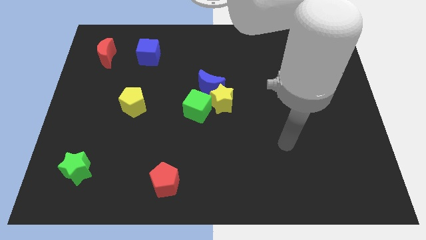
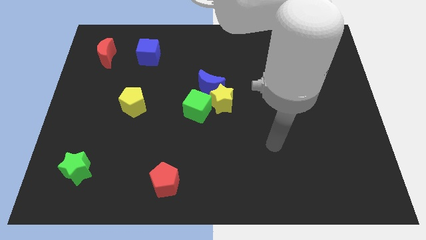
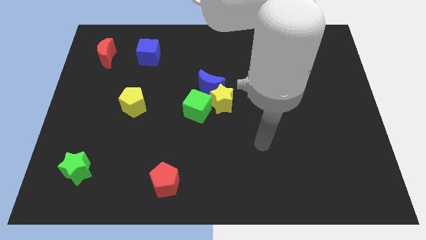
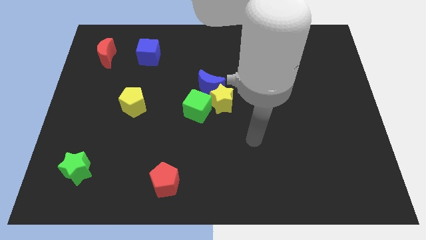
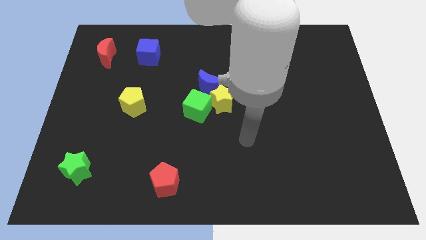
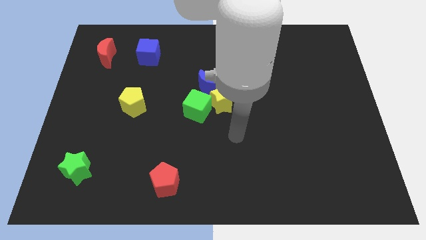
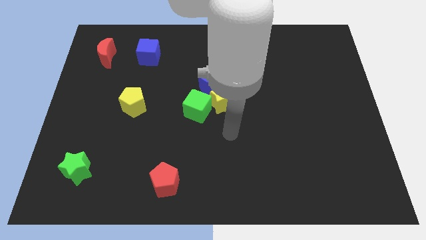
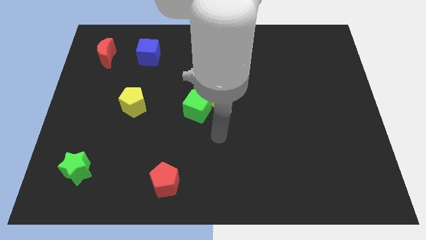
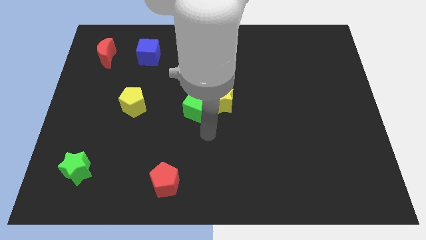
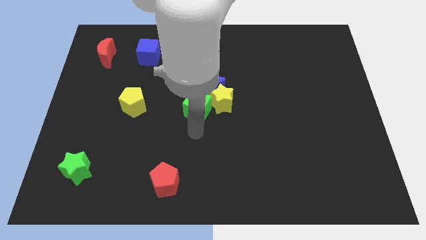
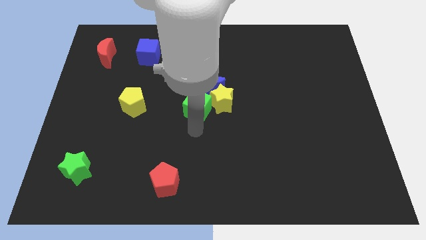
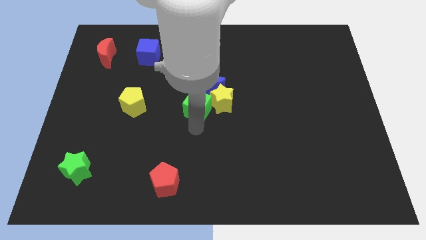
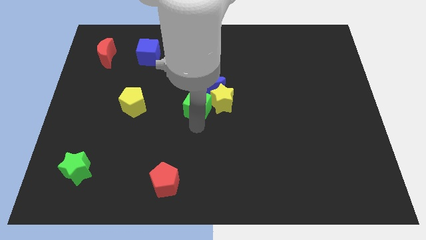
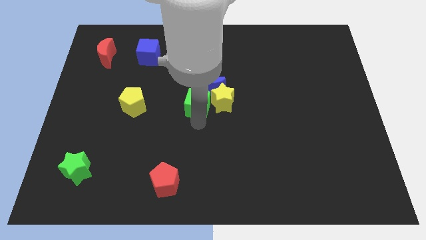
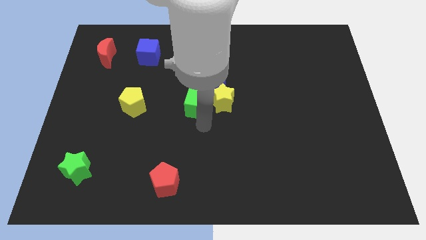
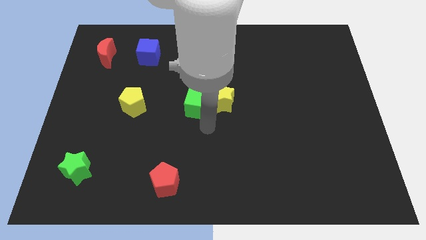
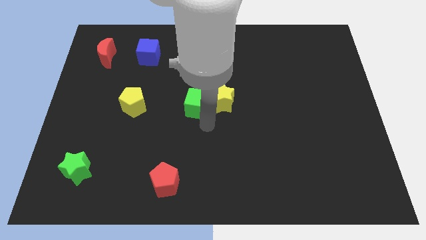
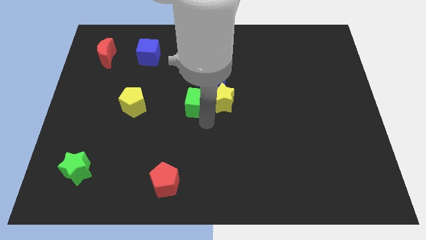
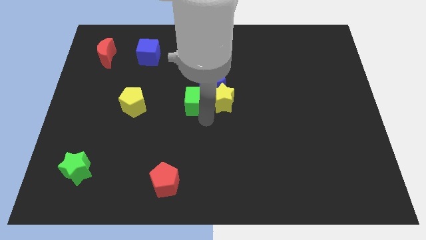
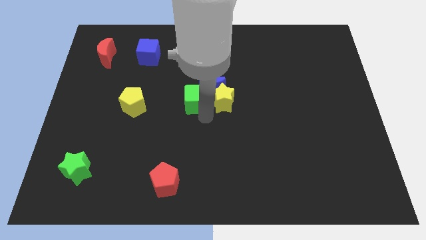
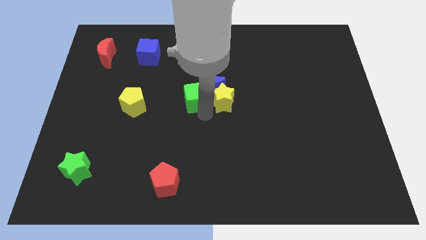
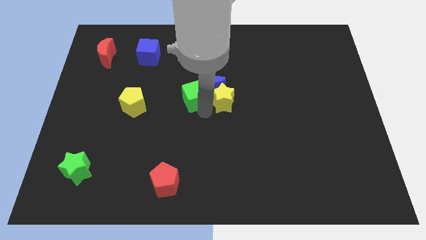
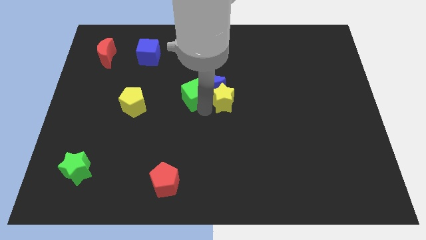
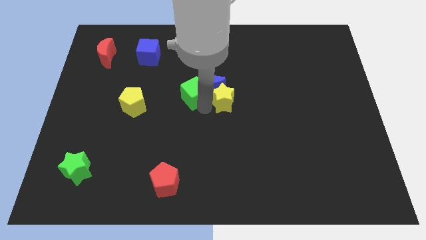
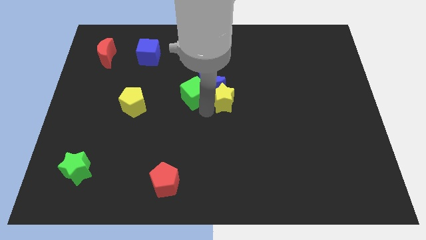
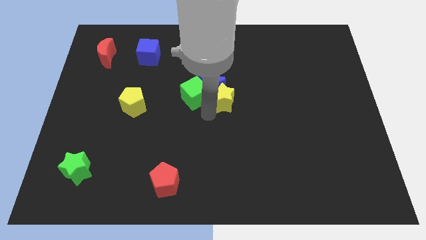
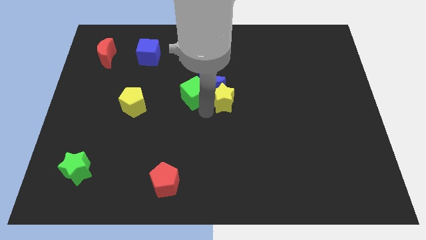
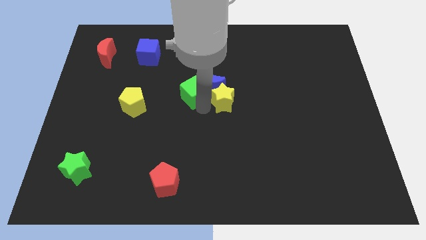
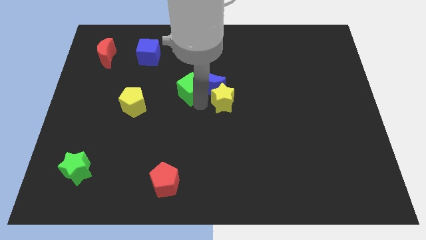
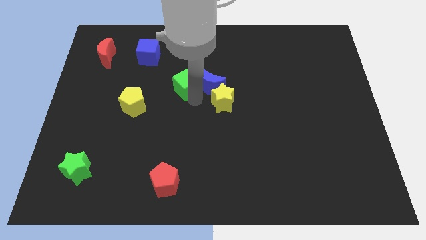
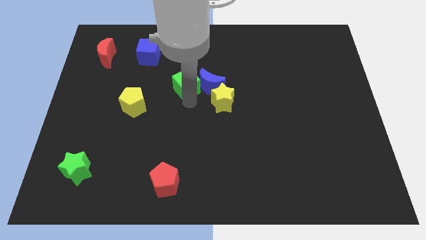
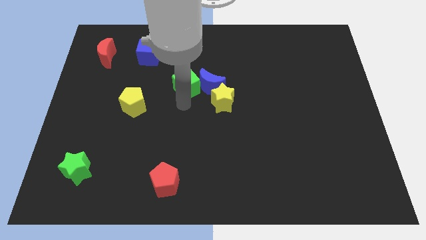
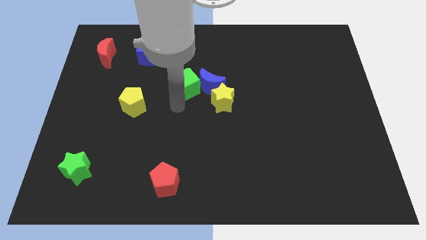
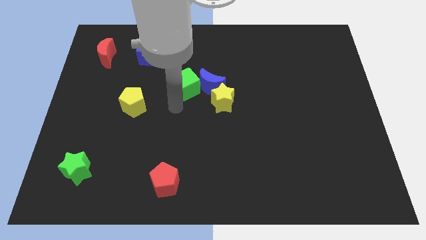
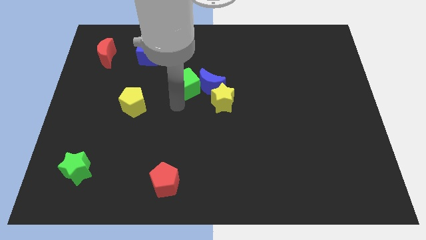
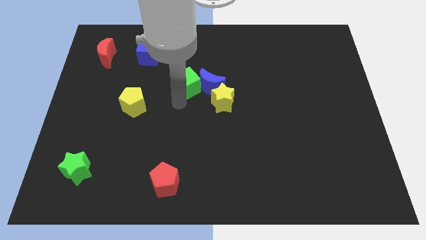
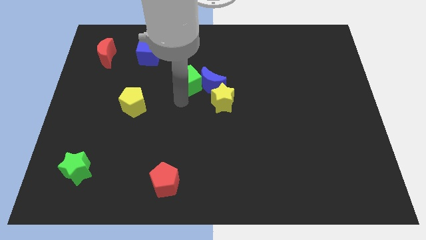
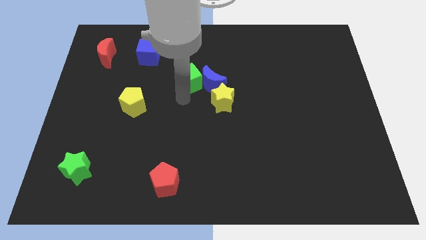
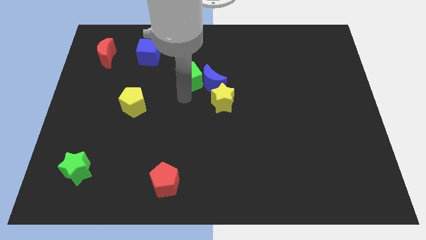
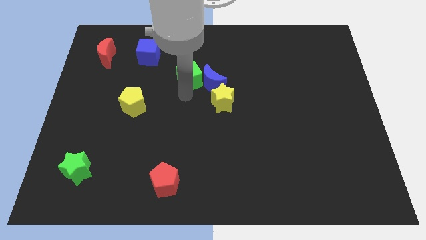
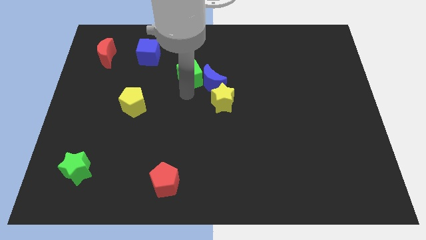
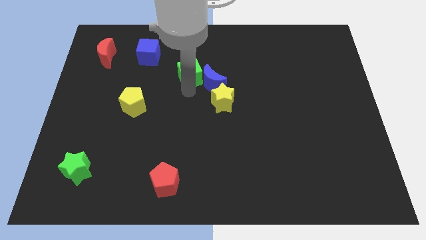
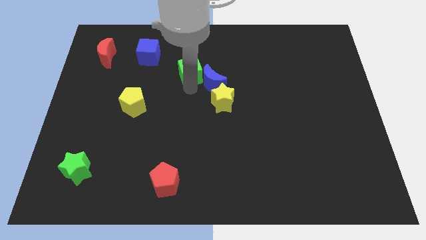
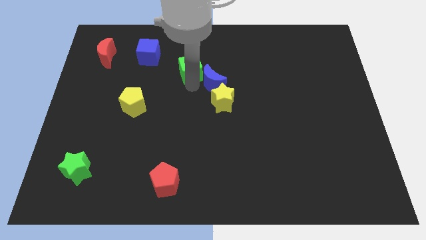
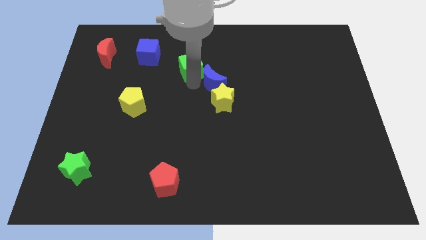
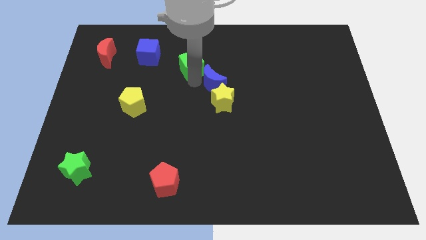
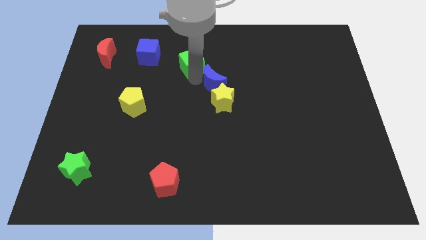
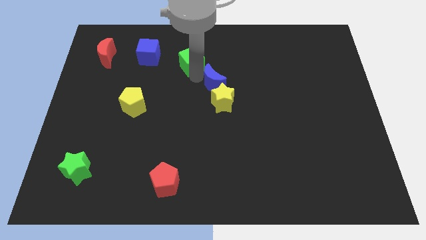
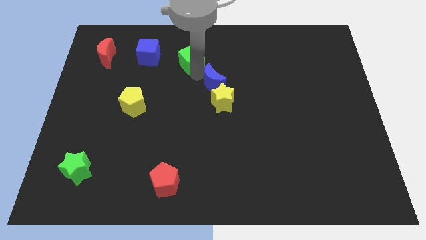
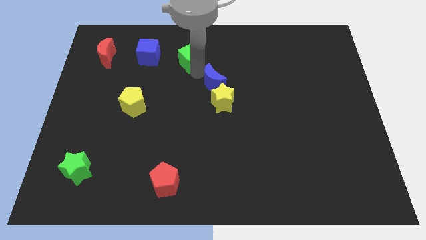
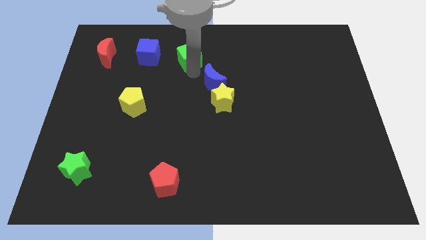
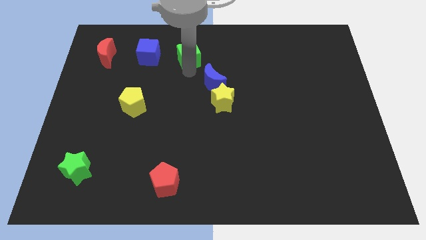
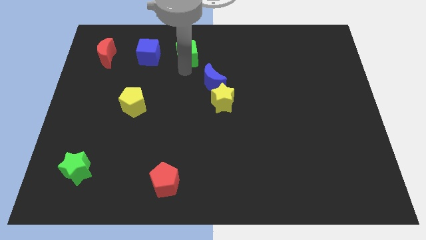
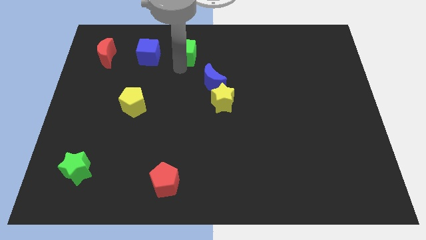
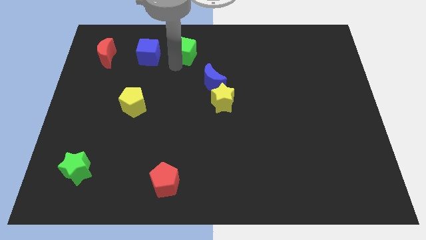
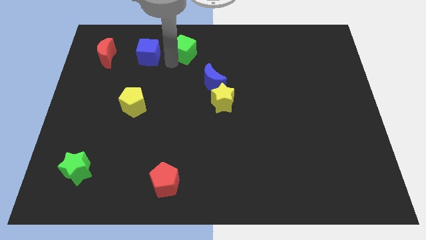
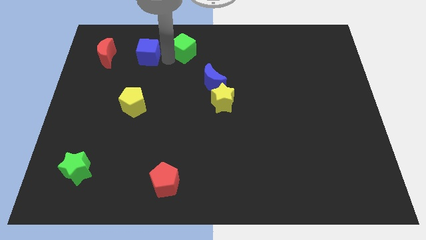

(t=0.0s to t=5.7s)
push the green cube to the top side
